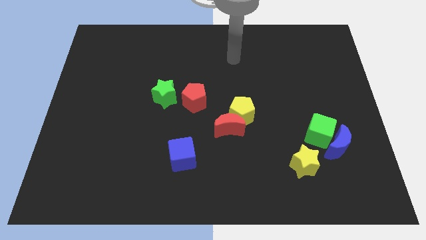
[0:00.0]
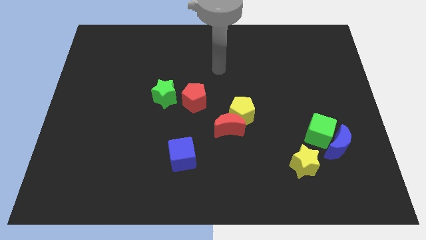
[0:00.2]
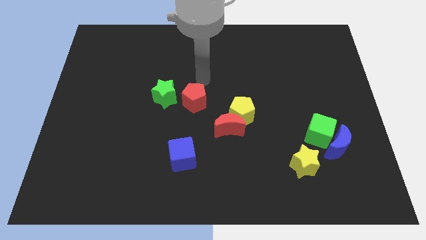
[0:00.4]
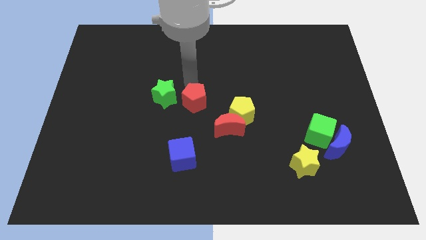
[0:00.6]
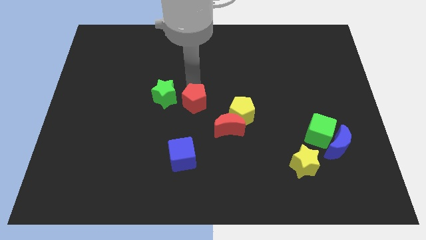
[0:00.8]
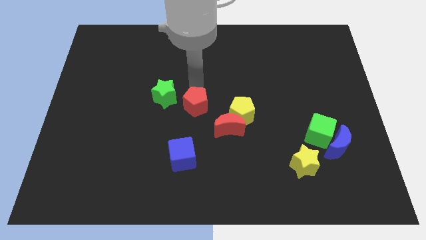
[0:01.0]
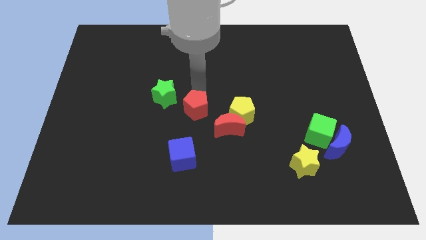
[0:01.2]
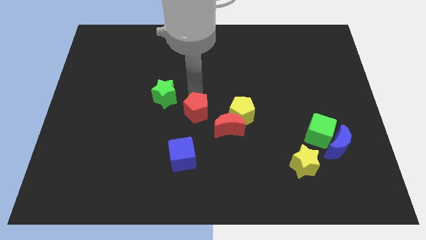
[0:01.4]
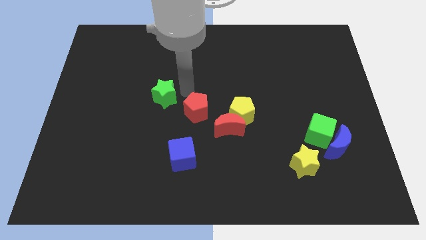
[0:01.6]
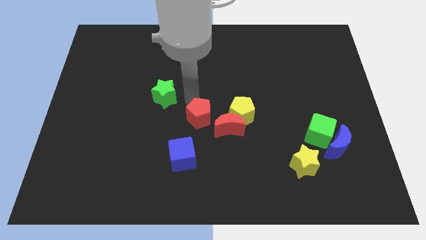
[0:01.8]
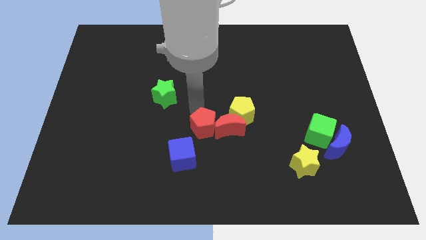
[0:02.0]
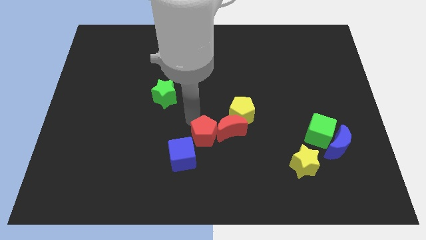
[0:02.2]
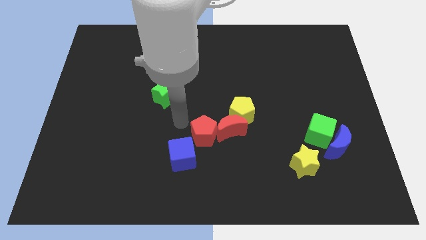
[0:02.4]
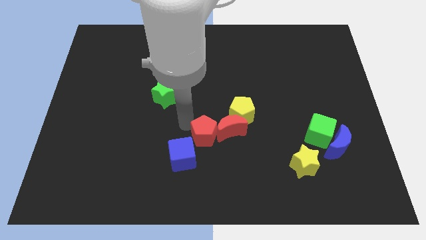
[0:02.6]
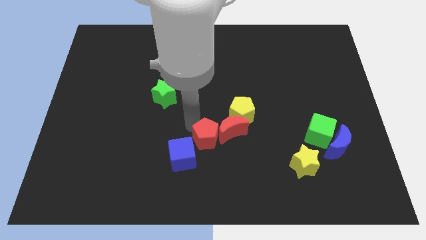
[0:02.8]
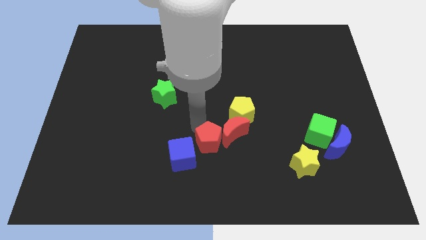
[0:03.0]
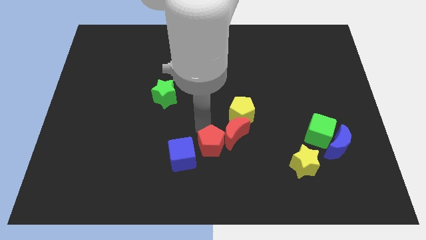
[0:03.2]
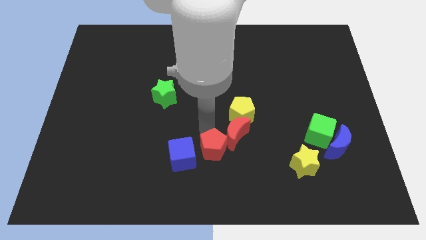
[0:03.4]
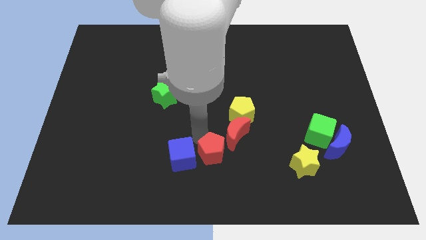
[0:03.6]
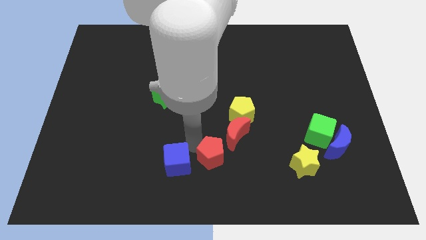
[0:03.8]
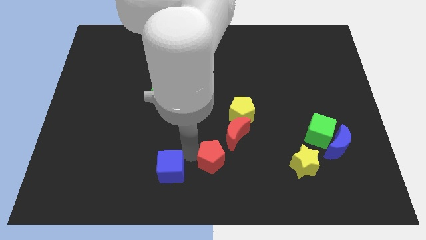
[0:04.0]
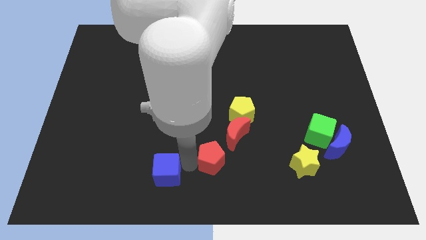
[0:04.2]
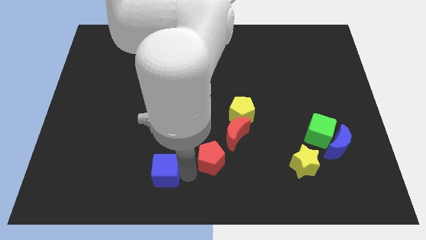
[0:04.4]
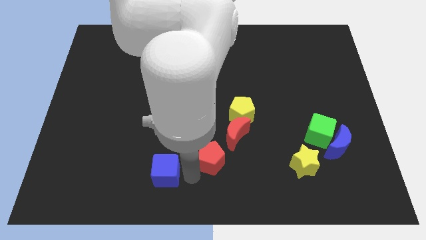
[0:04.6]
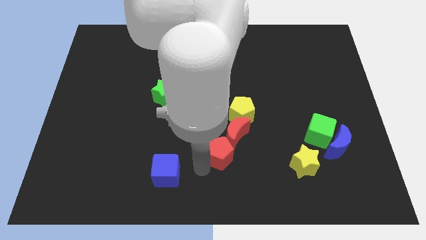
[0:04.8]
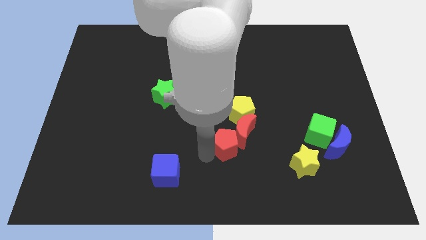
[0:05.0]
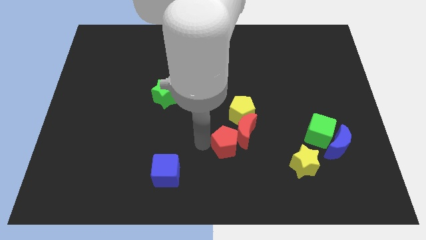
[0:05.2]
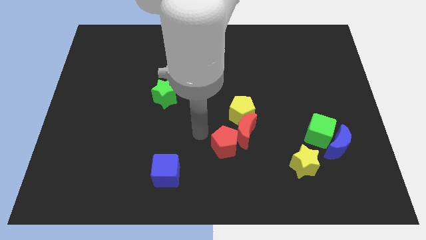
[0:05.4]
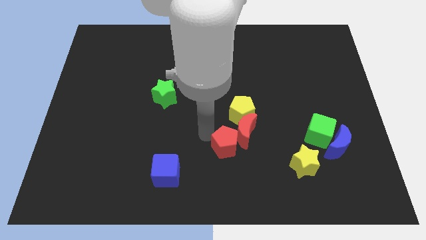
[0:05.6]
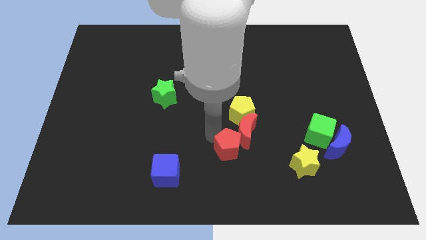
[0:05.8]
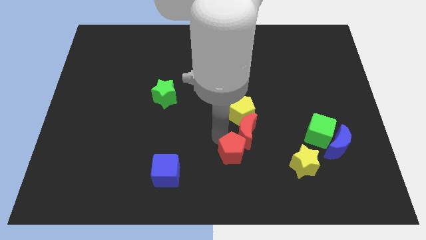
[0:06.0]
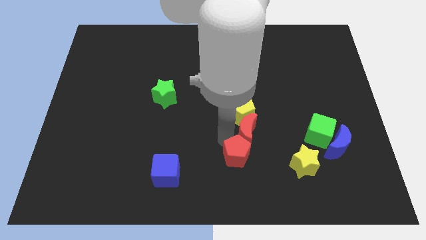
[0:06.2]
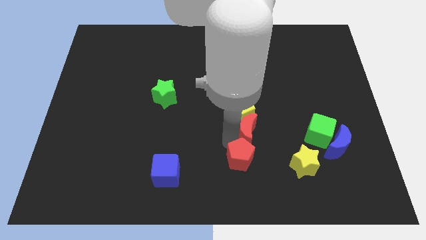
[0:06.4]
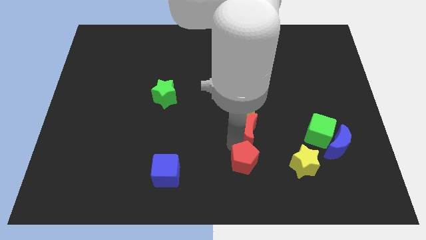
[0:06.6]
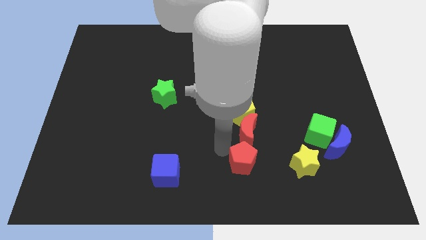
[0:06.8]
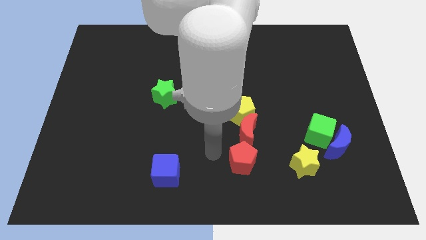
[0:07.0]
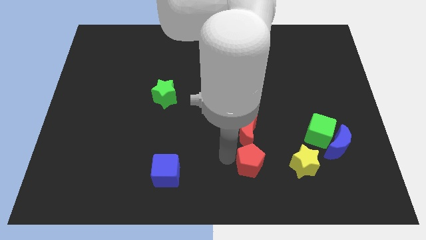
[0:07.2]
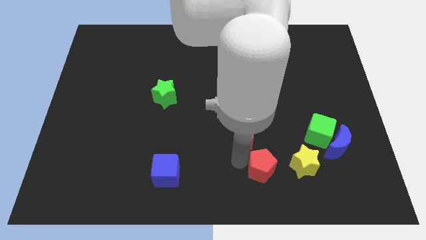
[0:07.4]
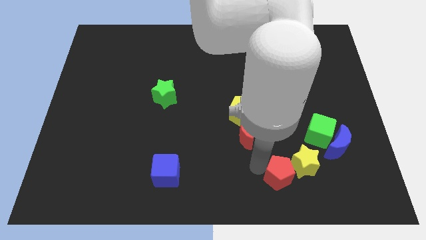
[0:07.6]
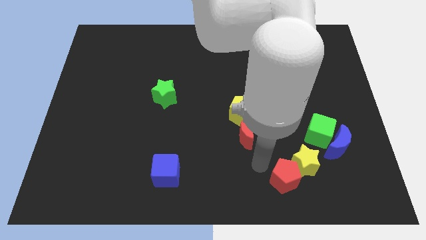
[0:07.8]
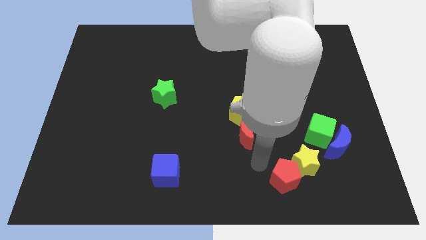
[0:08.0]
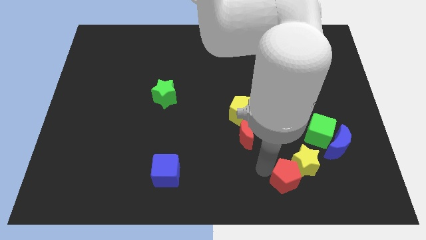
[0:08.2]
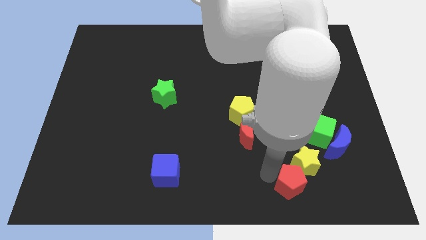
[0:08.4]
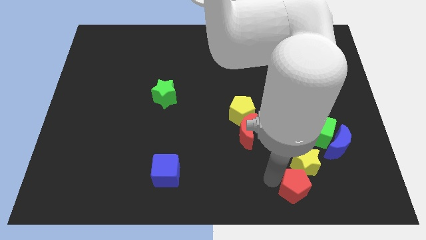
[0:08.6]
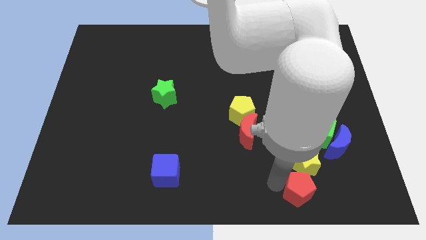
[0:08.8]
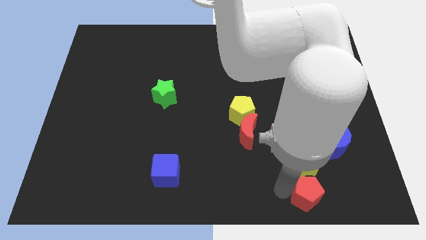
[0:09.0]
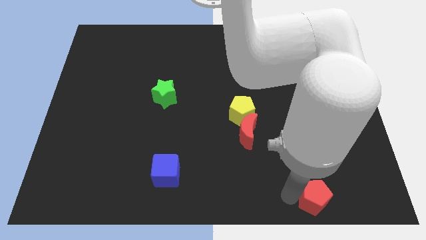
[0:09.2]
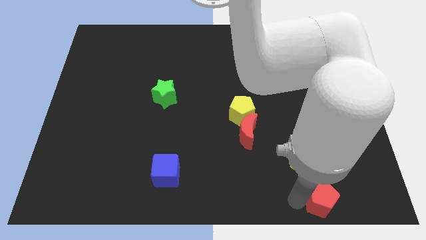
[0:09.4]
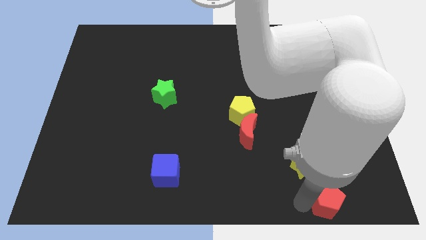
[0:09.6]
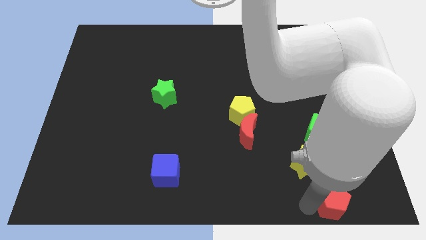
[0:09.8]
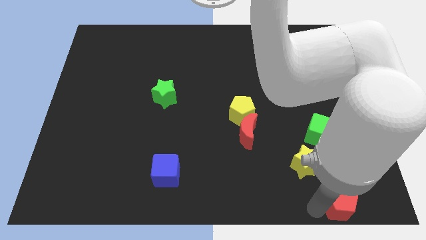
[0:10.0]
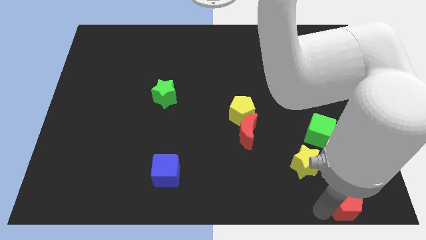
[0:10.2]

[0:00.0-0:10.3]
push the red pentagon to the bottom right corner
